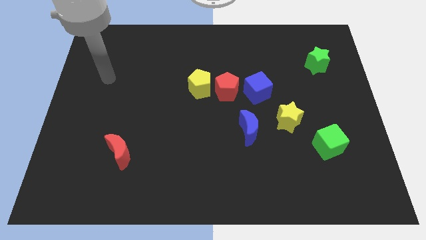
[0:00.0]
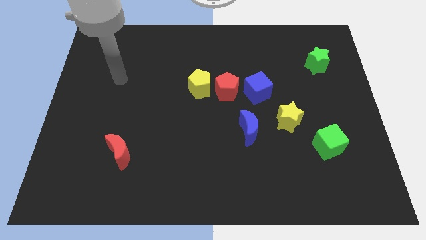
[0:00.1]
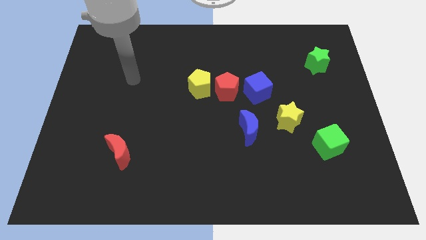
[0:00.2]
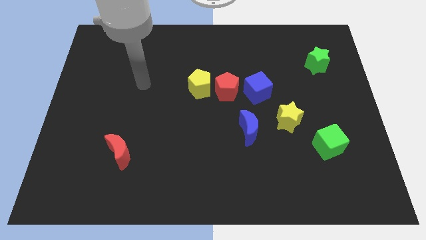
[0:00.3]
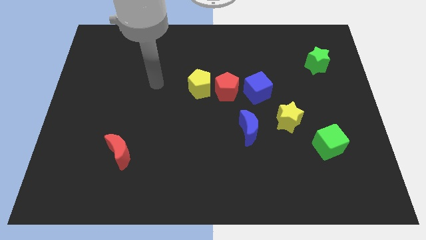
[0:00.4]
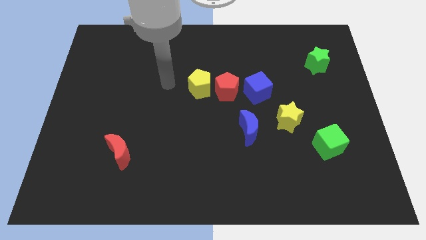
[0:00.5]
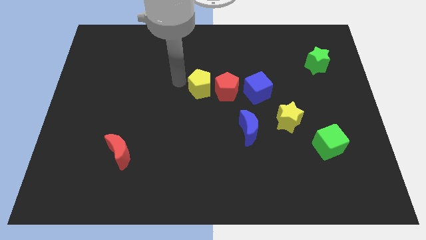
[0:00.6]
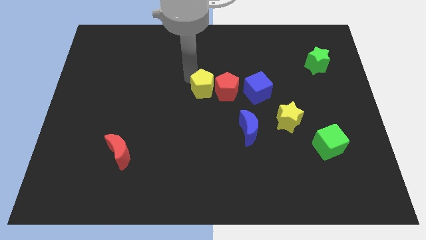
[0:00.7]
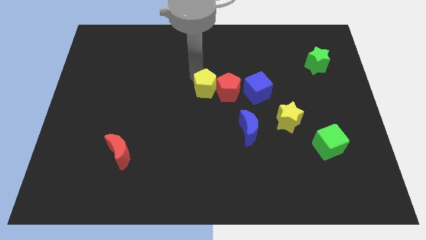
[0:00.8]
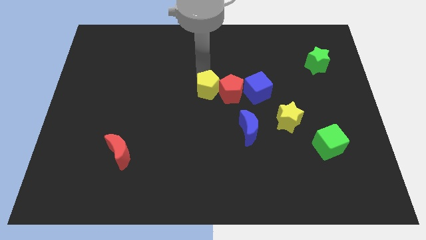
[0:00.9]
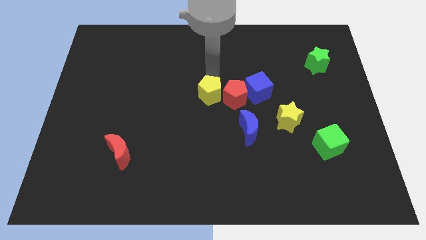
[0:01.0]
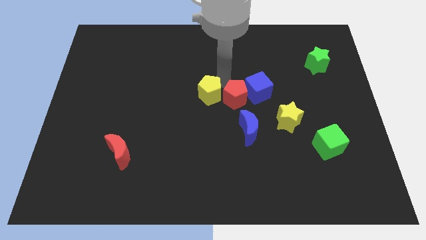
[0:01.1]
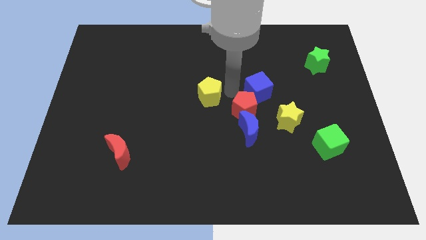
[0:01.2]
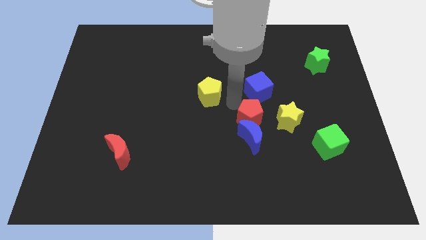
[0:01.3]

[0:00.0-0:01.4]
separate the yellow pentagon from the red pentagon

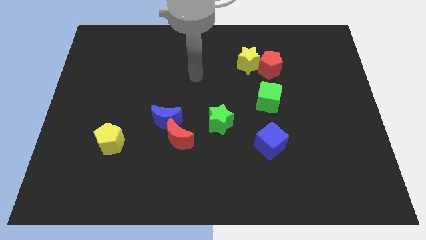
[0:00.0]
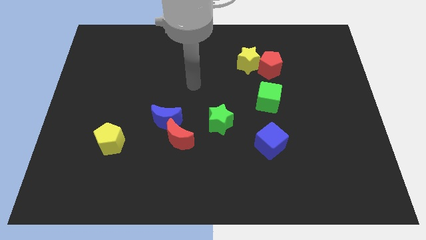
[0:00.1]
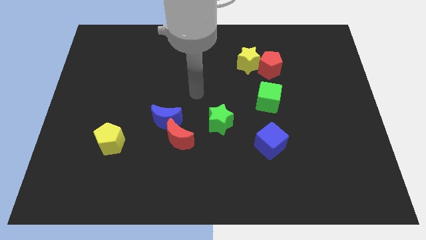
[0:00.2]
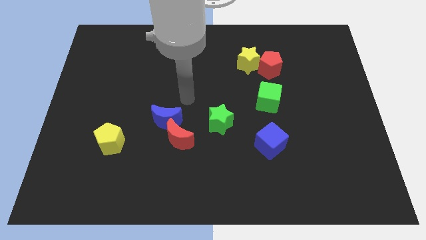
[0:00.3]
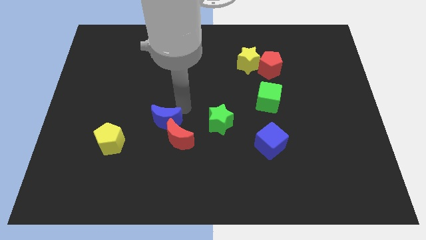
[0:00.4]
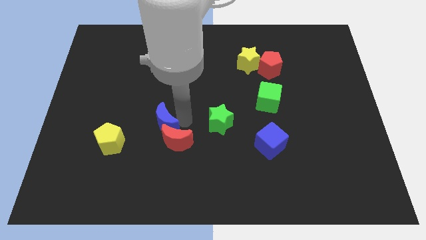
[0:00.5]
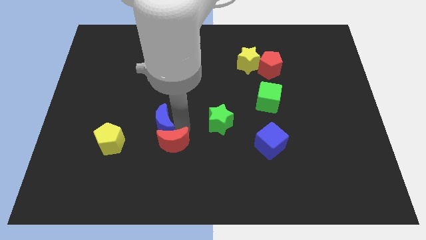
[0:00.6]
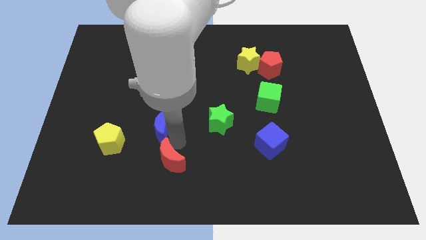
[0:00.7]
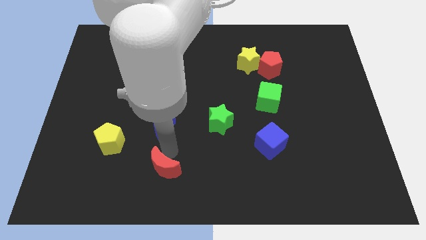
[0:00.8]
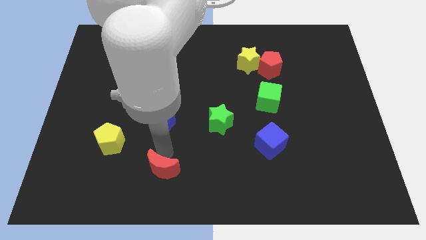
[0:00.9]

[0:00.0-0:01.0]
separate the blue moon from the red moon

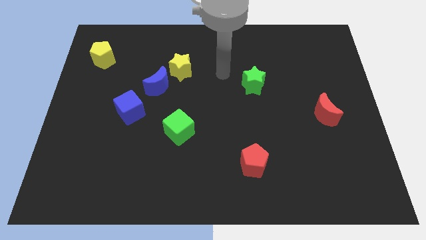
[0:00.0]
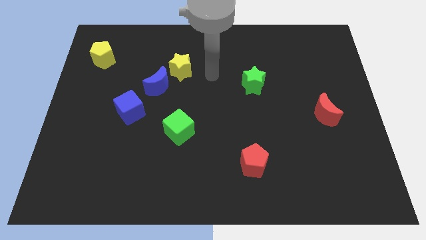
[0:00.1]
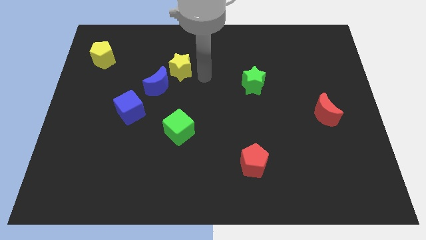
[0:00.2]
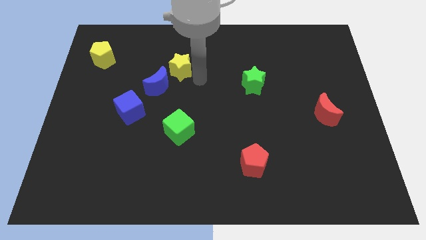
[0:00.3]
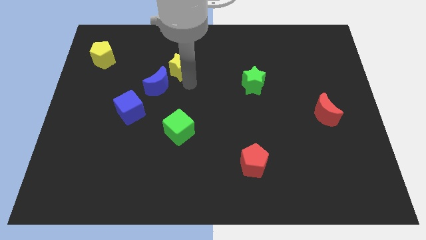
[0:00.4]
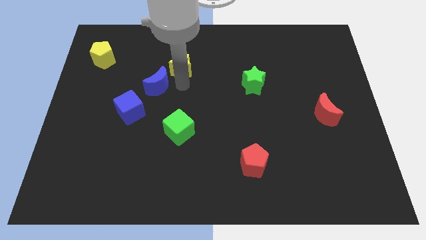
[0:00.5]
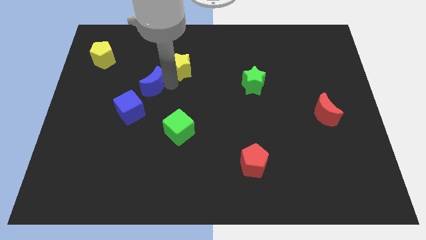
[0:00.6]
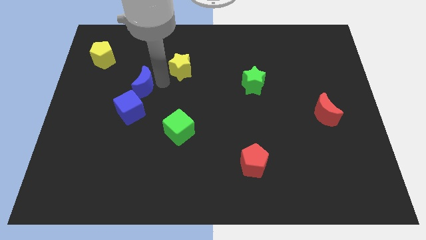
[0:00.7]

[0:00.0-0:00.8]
separate the yellow star from the blue moon

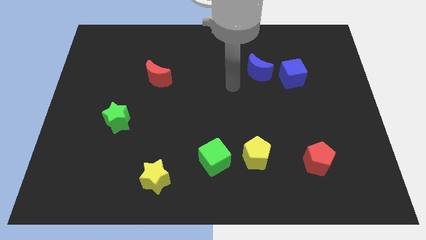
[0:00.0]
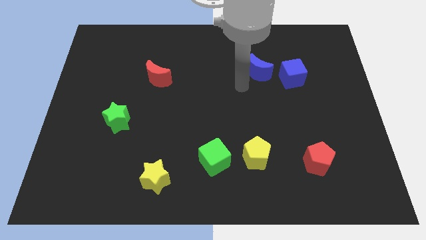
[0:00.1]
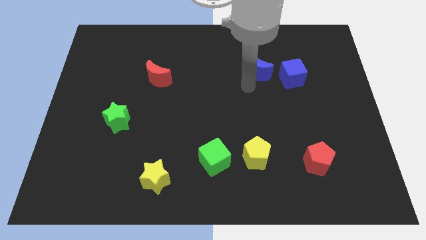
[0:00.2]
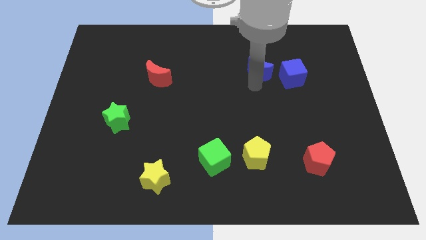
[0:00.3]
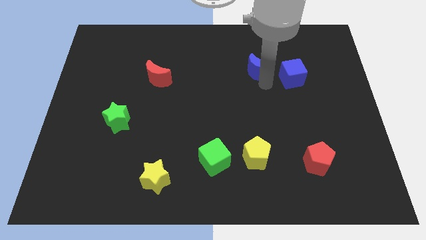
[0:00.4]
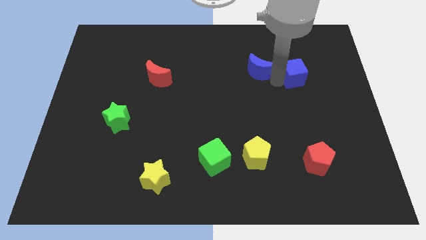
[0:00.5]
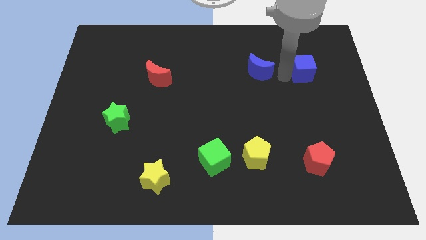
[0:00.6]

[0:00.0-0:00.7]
separate the blue moon from the blue cube

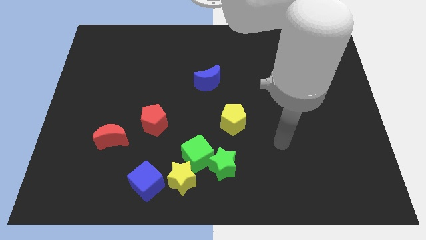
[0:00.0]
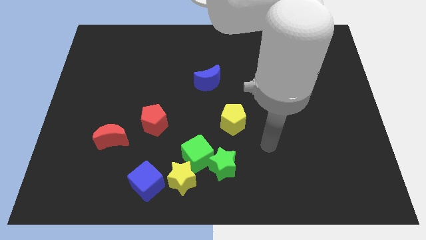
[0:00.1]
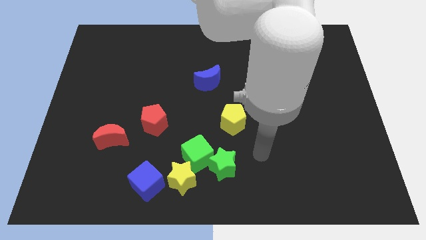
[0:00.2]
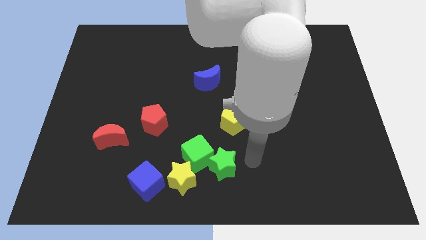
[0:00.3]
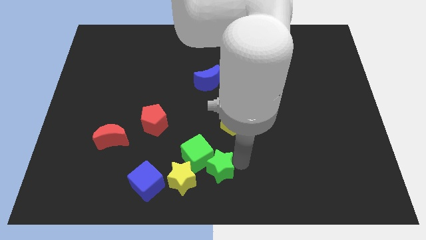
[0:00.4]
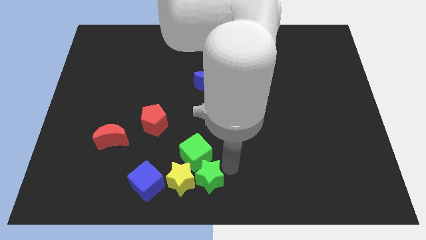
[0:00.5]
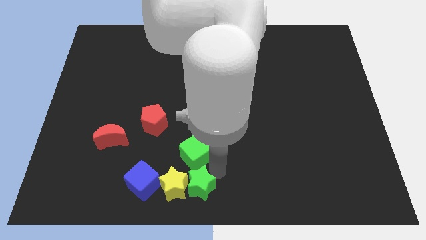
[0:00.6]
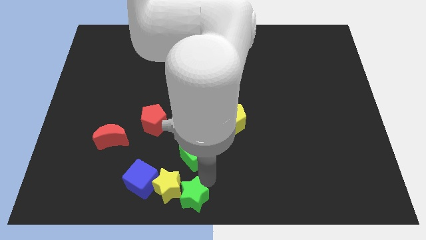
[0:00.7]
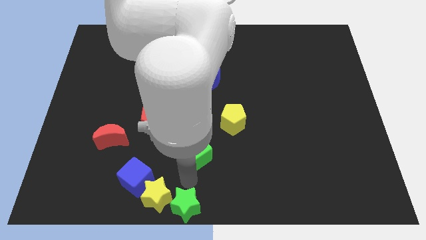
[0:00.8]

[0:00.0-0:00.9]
separate the green cube from the green star and yellow star

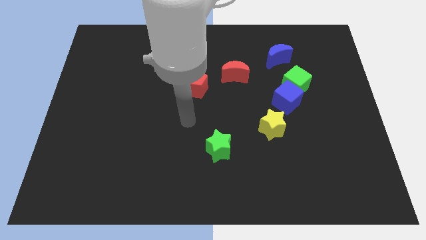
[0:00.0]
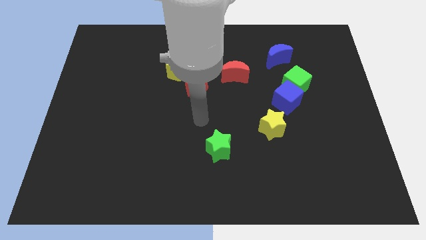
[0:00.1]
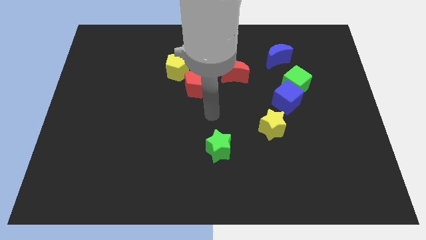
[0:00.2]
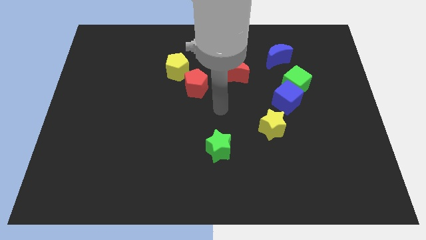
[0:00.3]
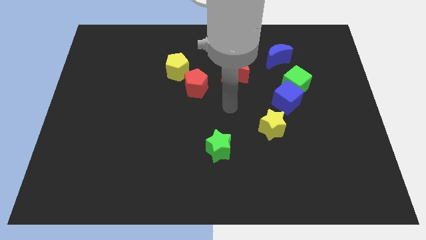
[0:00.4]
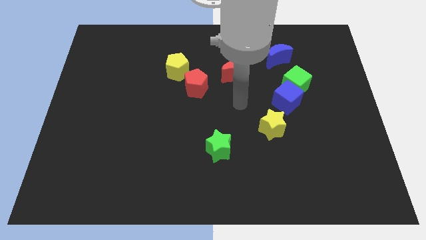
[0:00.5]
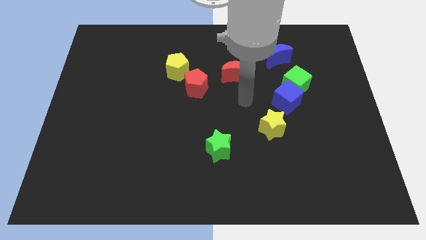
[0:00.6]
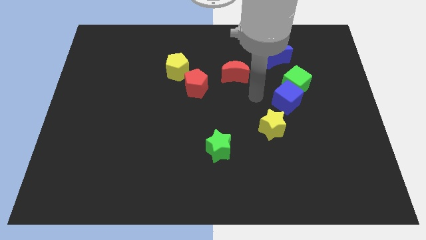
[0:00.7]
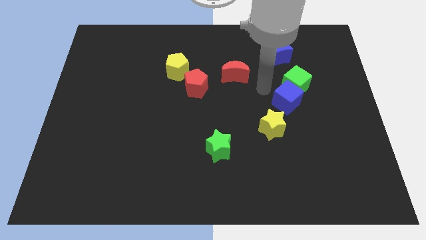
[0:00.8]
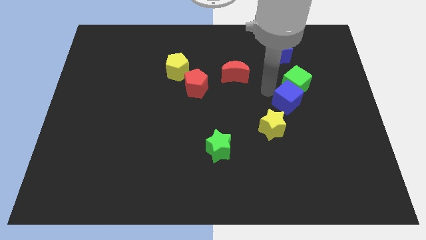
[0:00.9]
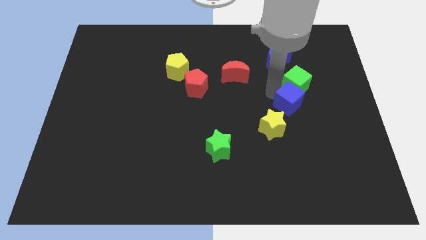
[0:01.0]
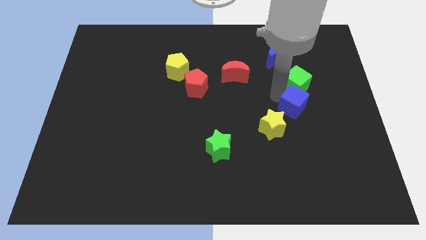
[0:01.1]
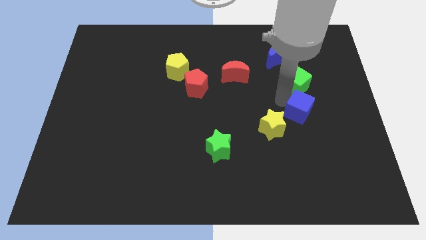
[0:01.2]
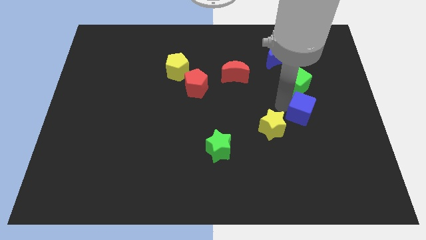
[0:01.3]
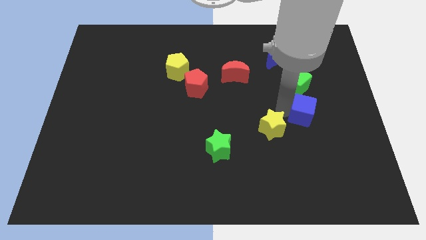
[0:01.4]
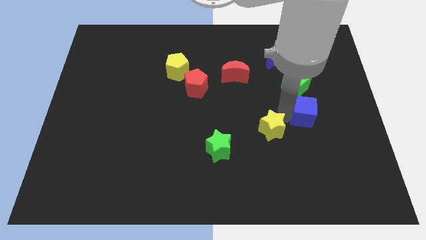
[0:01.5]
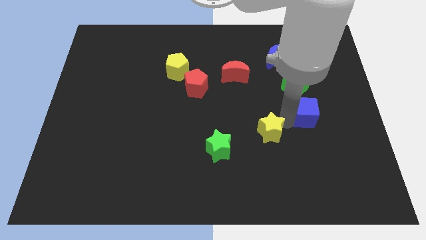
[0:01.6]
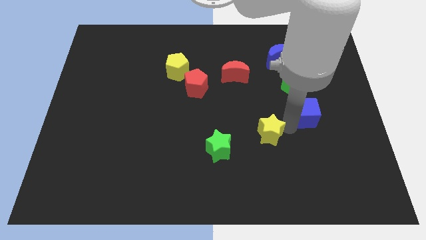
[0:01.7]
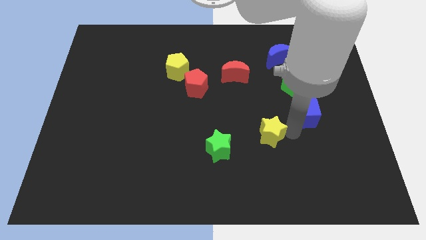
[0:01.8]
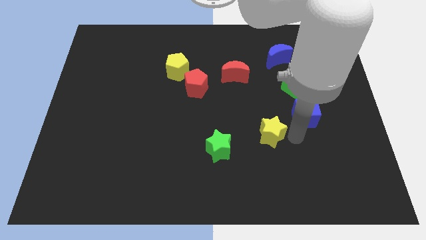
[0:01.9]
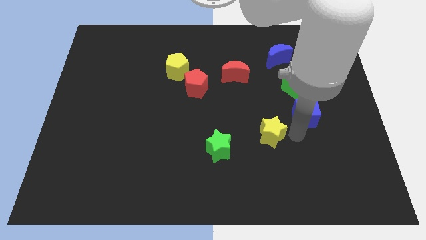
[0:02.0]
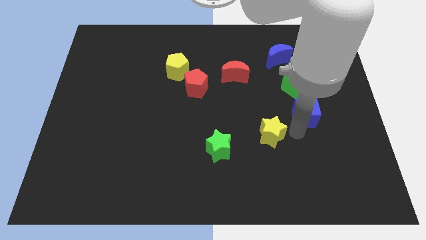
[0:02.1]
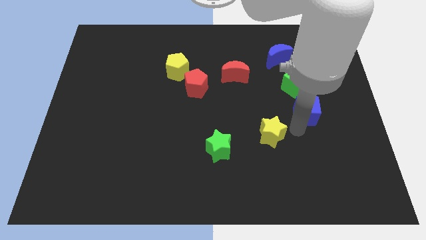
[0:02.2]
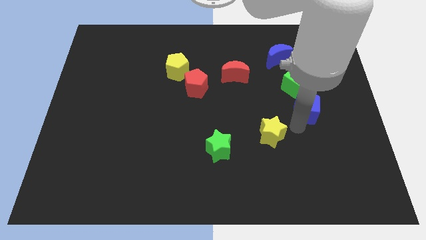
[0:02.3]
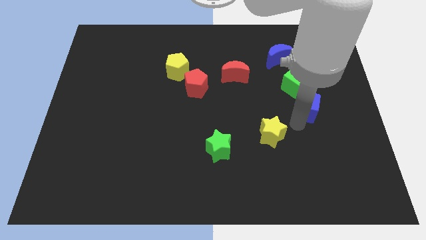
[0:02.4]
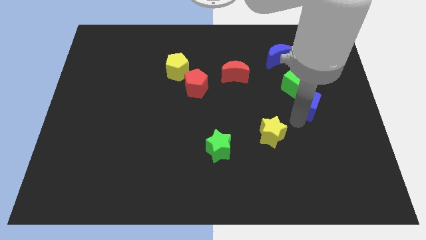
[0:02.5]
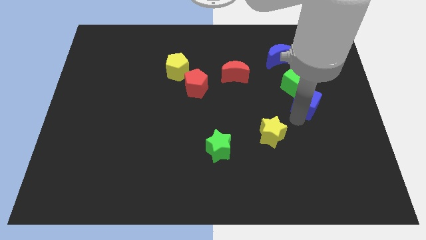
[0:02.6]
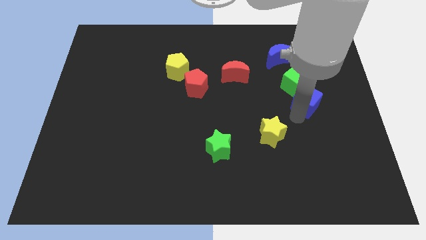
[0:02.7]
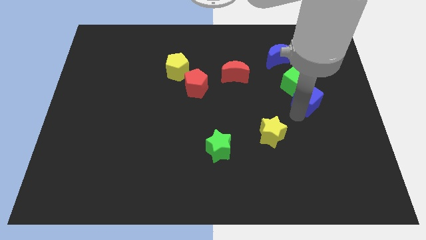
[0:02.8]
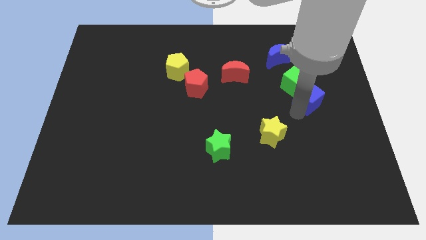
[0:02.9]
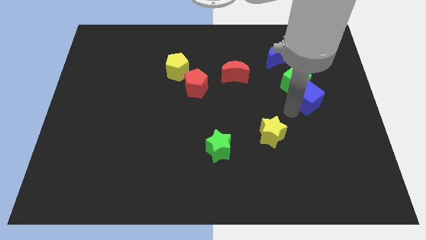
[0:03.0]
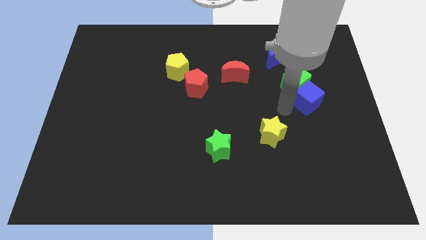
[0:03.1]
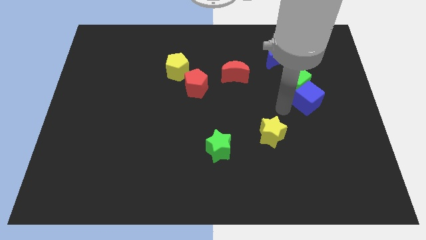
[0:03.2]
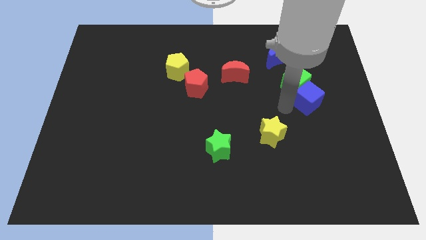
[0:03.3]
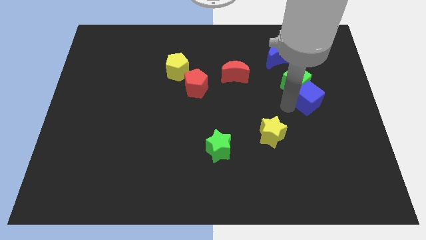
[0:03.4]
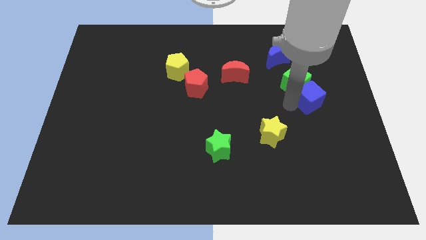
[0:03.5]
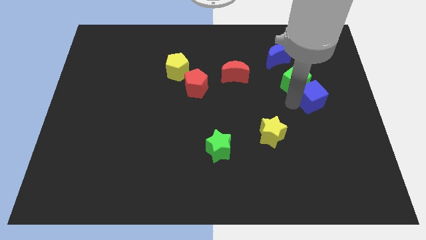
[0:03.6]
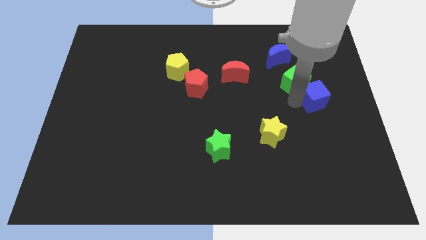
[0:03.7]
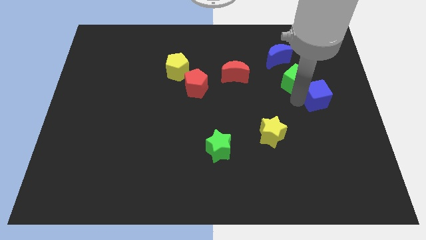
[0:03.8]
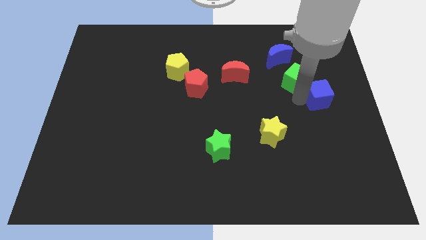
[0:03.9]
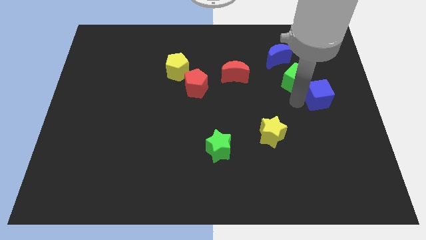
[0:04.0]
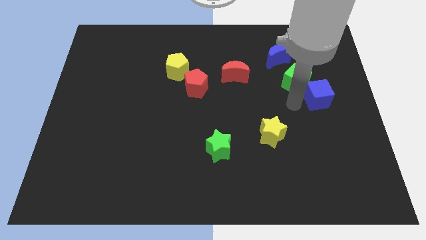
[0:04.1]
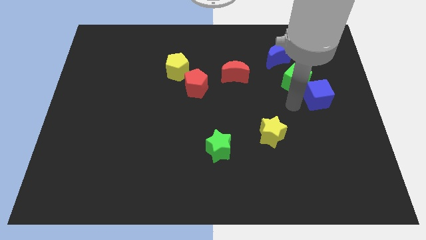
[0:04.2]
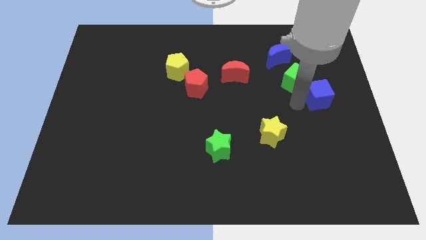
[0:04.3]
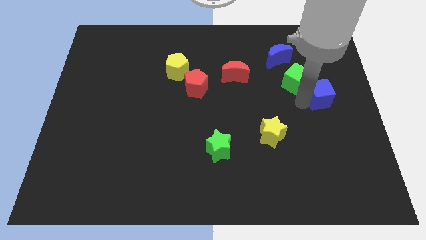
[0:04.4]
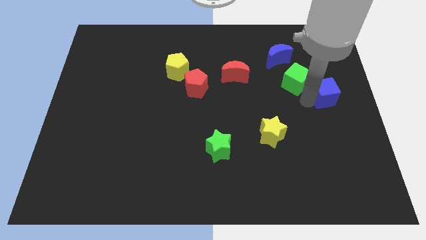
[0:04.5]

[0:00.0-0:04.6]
pull the blue cube apart from the green cube and yellow star

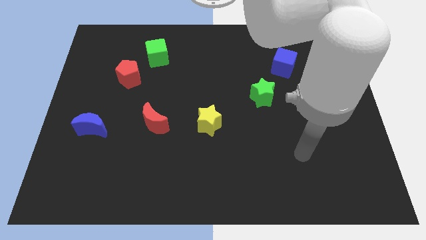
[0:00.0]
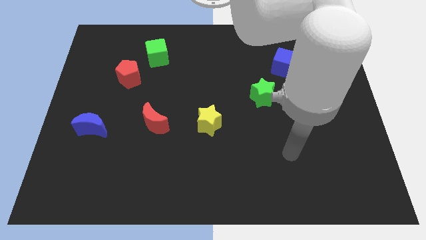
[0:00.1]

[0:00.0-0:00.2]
pull the red pentagon apart from the green cube
